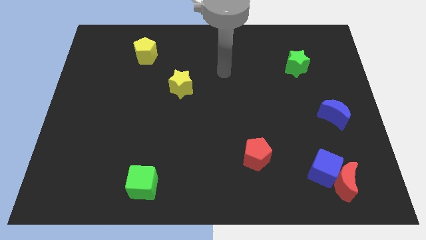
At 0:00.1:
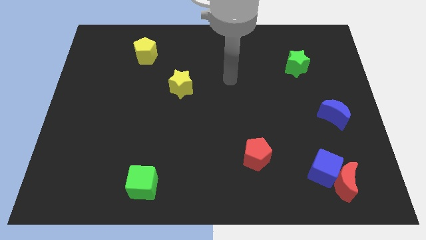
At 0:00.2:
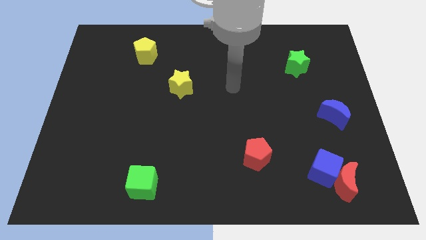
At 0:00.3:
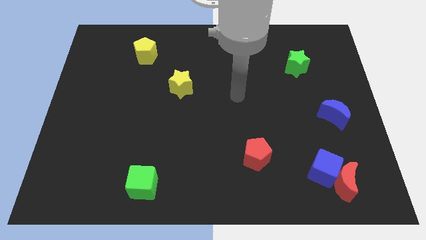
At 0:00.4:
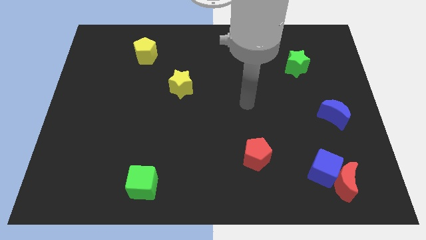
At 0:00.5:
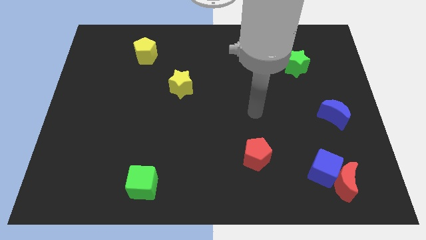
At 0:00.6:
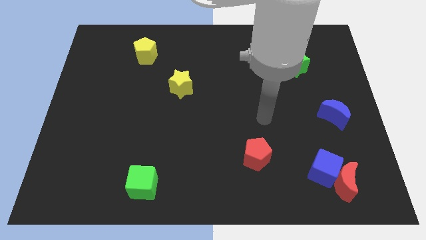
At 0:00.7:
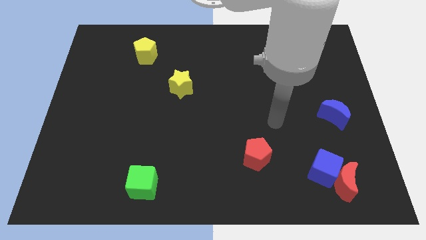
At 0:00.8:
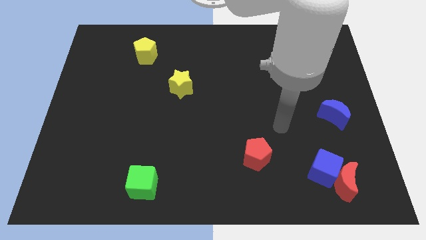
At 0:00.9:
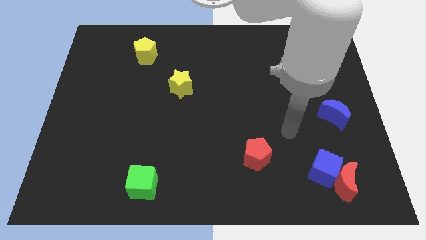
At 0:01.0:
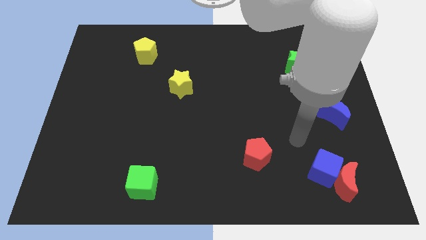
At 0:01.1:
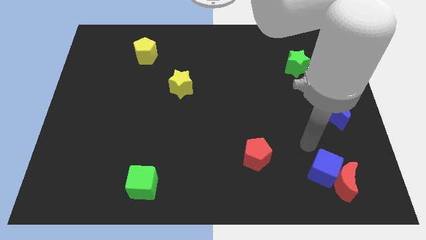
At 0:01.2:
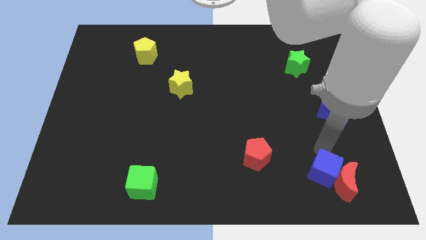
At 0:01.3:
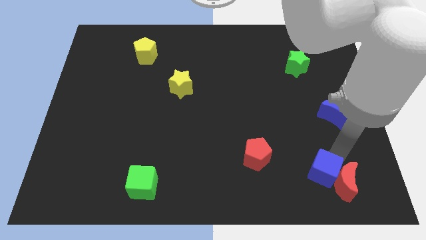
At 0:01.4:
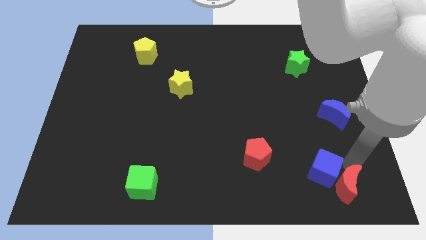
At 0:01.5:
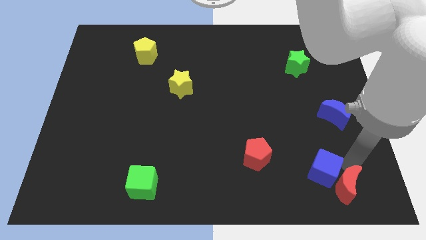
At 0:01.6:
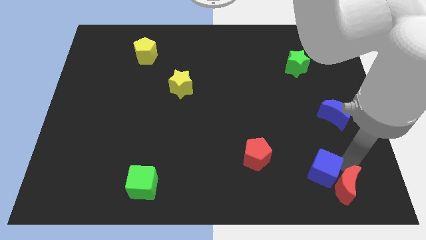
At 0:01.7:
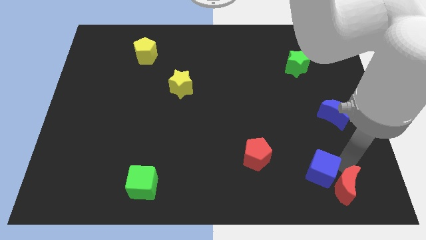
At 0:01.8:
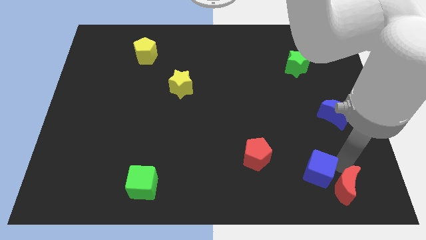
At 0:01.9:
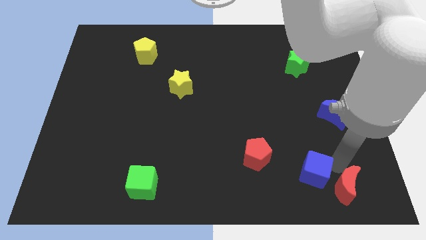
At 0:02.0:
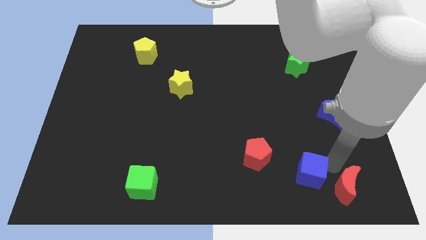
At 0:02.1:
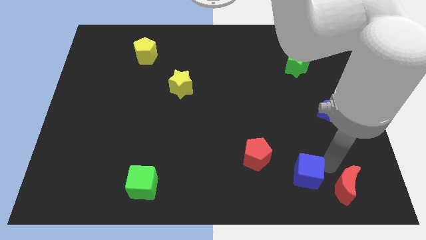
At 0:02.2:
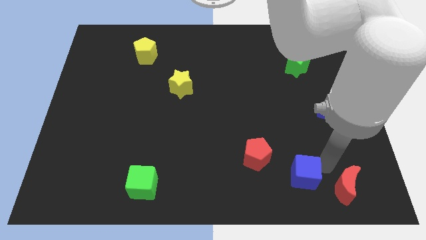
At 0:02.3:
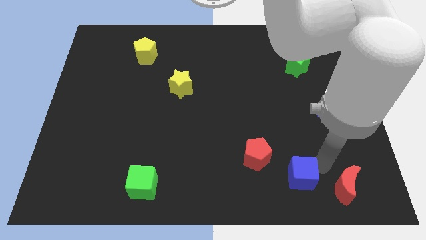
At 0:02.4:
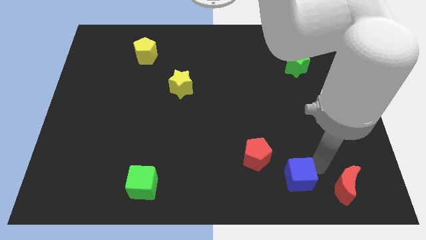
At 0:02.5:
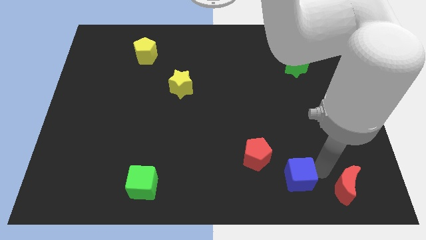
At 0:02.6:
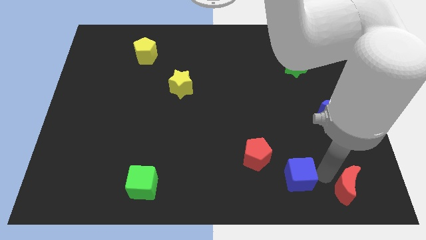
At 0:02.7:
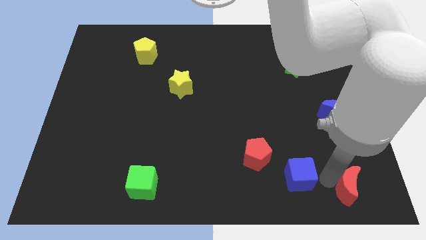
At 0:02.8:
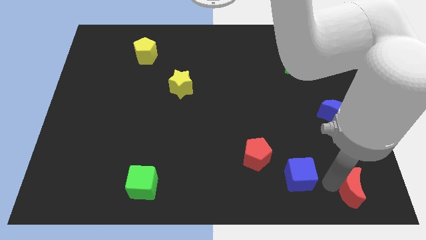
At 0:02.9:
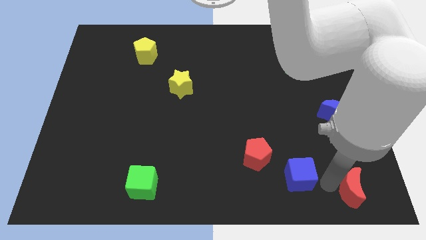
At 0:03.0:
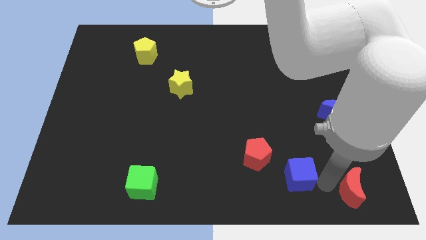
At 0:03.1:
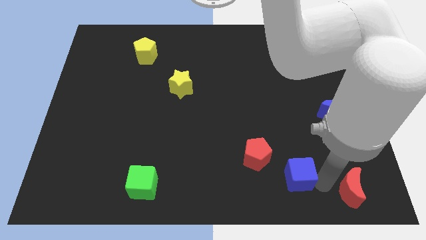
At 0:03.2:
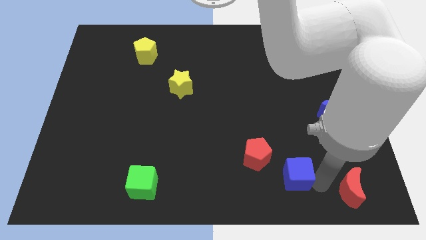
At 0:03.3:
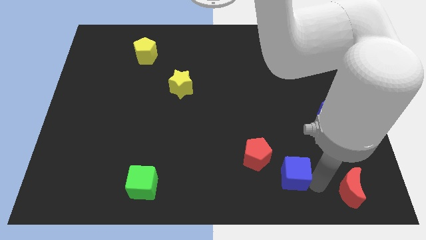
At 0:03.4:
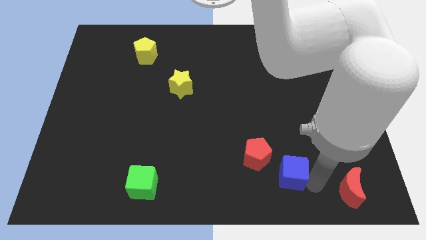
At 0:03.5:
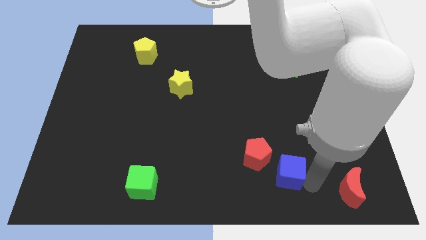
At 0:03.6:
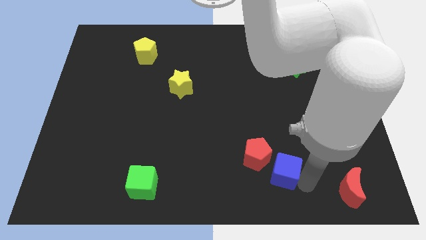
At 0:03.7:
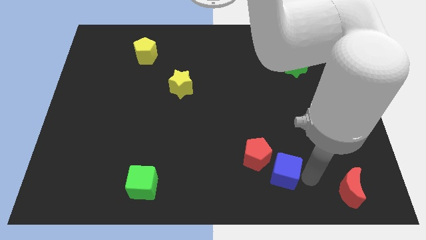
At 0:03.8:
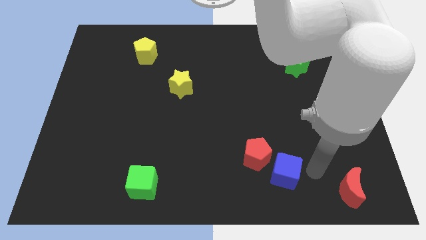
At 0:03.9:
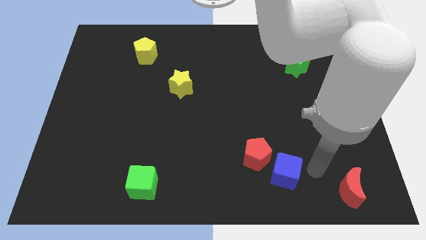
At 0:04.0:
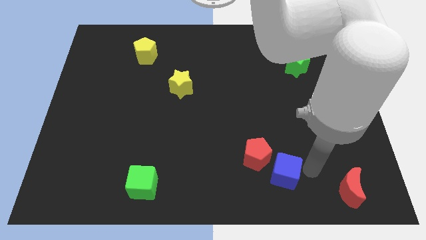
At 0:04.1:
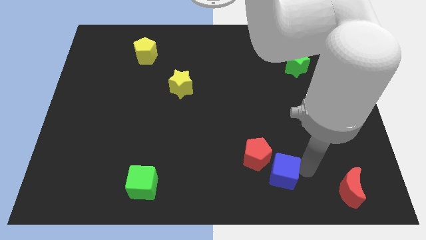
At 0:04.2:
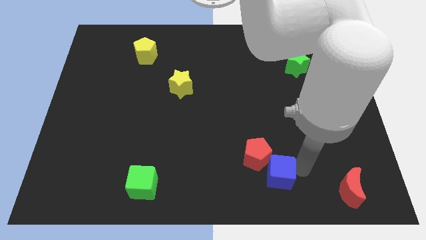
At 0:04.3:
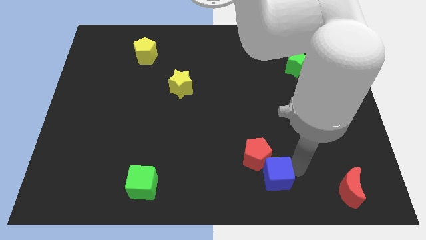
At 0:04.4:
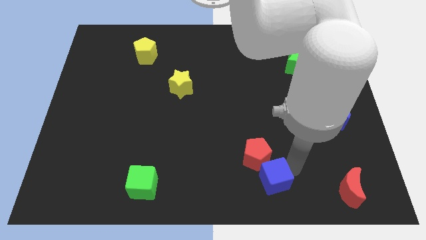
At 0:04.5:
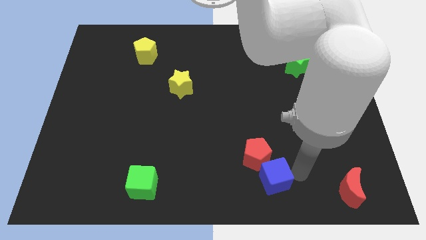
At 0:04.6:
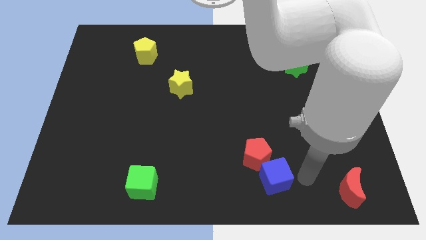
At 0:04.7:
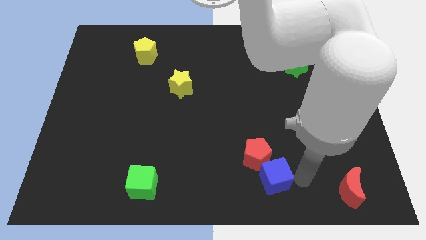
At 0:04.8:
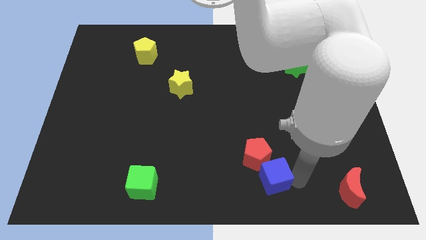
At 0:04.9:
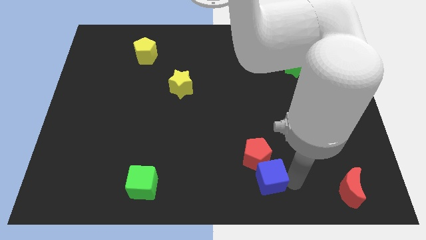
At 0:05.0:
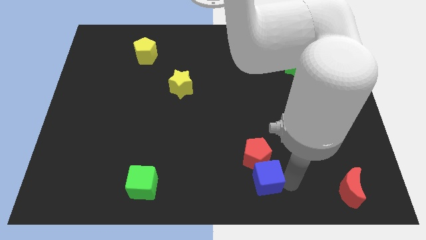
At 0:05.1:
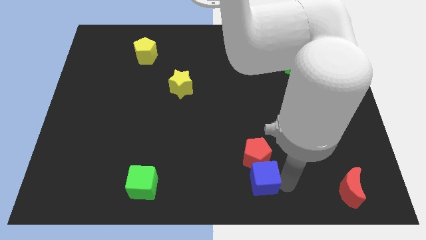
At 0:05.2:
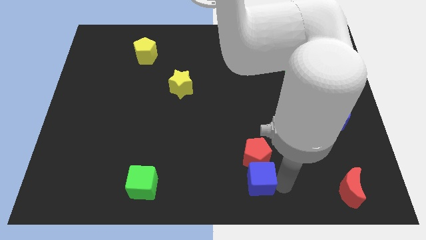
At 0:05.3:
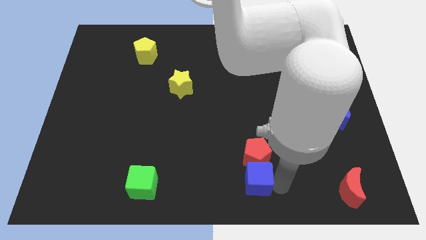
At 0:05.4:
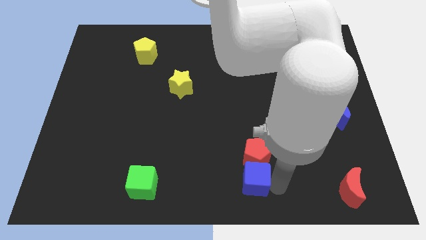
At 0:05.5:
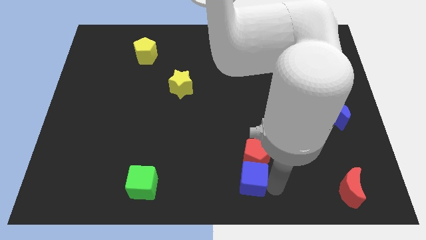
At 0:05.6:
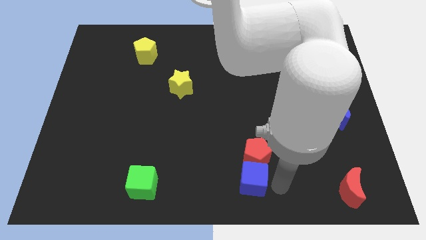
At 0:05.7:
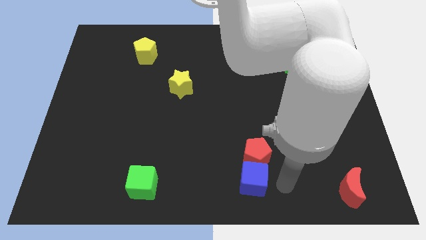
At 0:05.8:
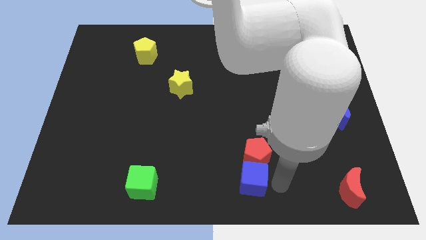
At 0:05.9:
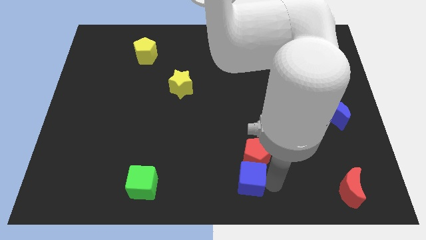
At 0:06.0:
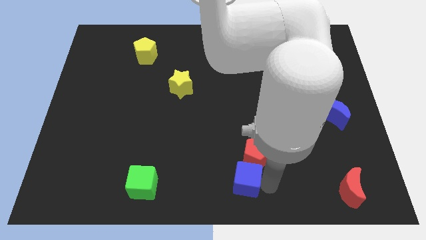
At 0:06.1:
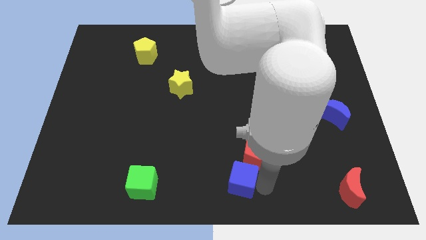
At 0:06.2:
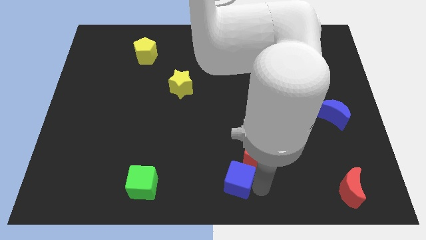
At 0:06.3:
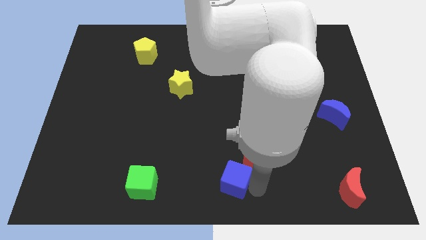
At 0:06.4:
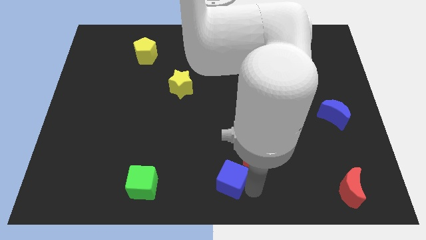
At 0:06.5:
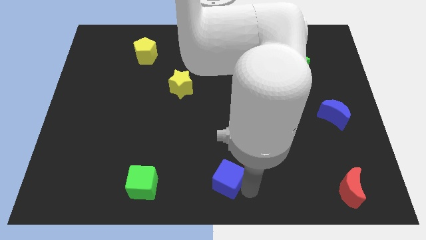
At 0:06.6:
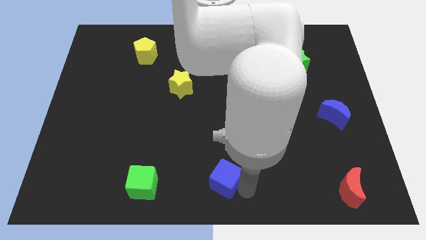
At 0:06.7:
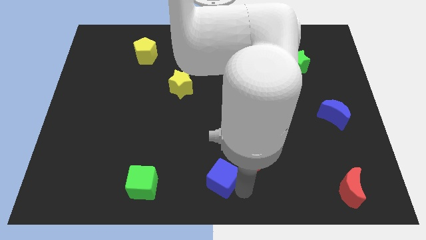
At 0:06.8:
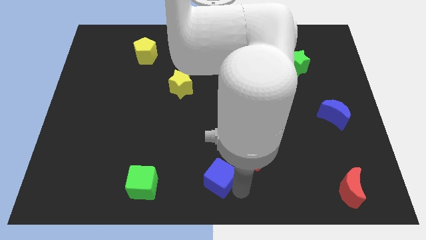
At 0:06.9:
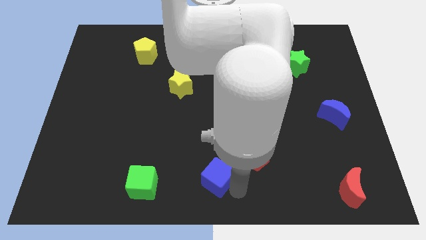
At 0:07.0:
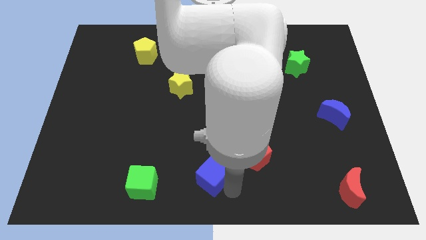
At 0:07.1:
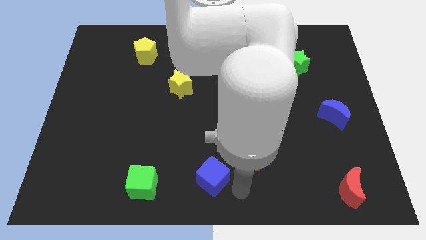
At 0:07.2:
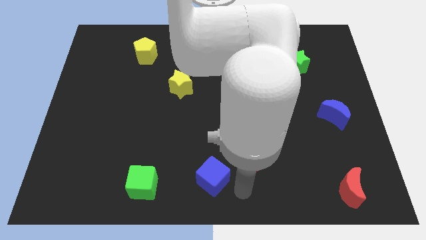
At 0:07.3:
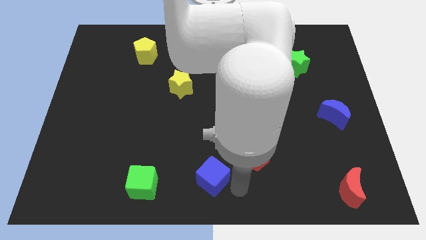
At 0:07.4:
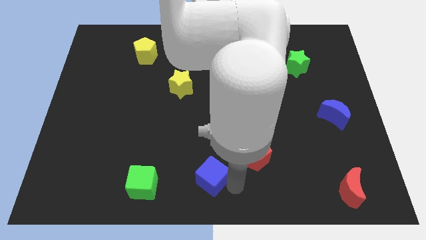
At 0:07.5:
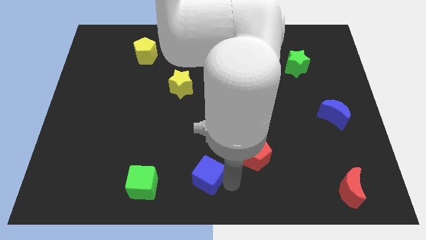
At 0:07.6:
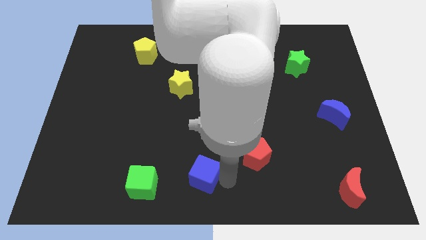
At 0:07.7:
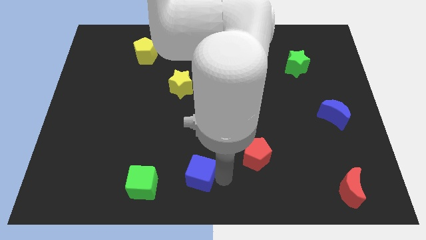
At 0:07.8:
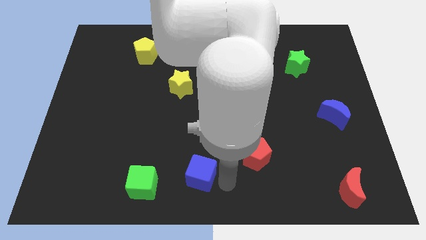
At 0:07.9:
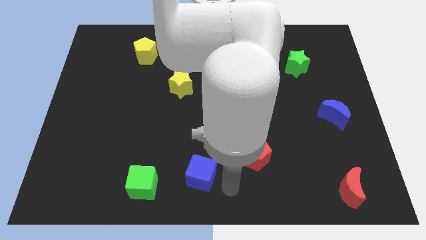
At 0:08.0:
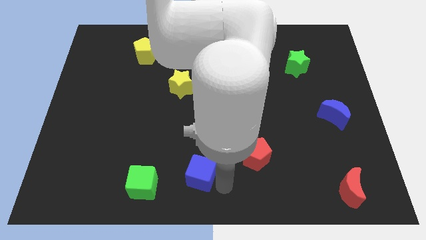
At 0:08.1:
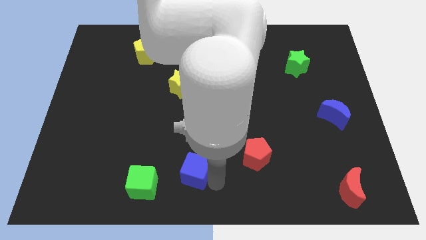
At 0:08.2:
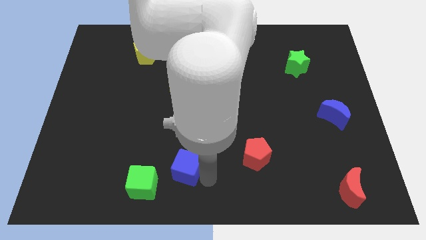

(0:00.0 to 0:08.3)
slide the blue cube diagonally up and to the right of the green cube
